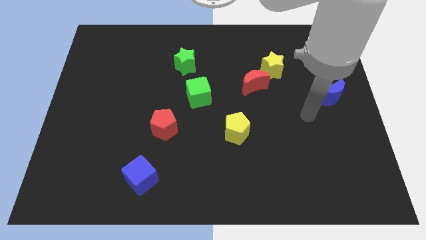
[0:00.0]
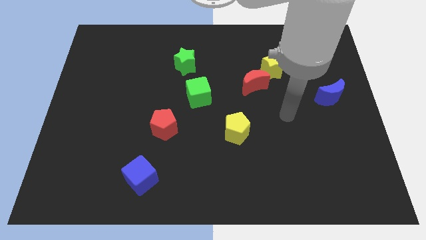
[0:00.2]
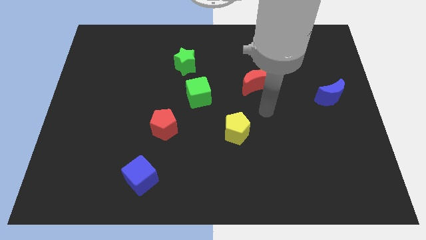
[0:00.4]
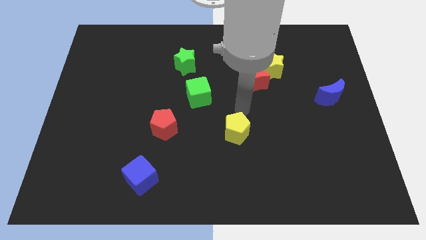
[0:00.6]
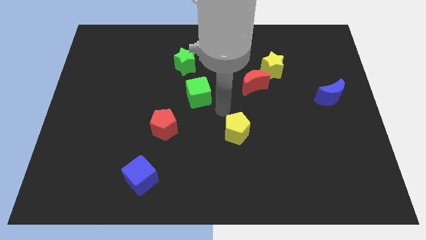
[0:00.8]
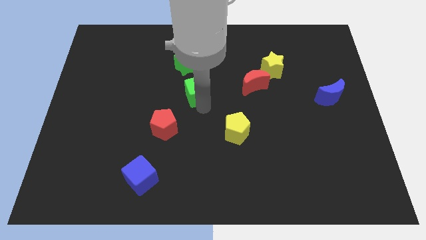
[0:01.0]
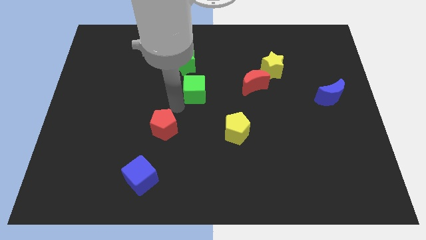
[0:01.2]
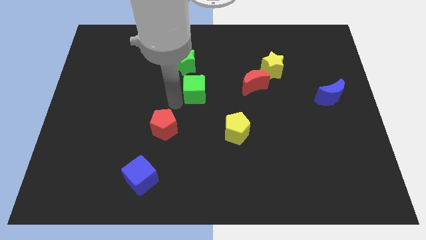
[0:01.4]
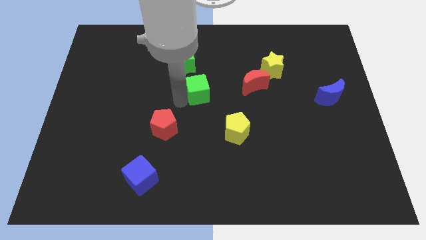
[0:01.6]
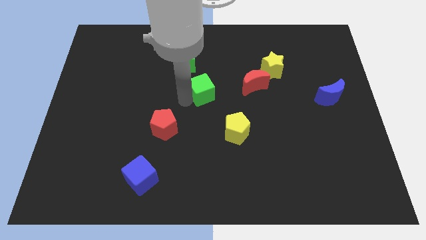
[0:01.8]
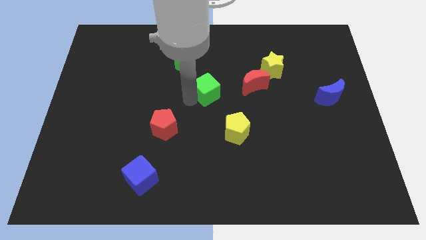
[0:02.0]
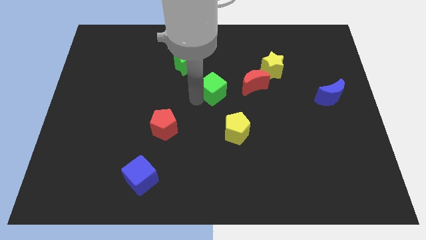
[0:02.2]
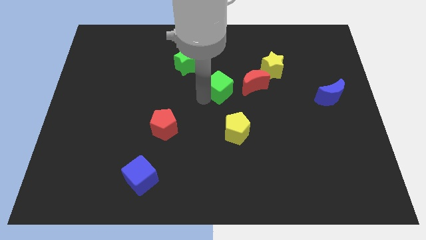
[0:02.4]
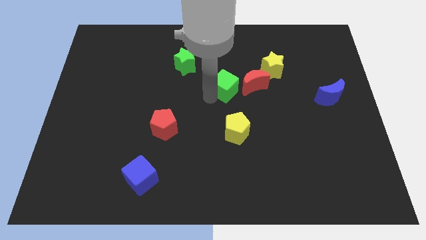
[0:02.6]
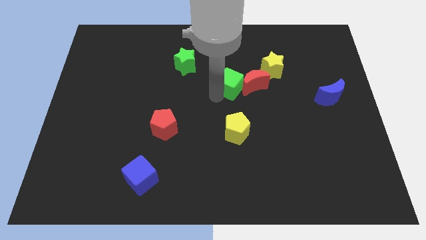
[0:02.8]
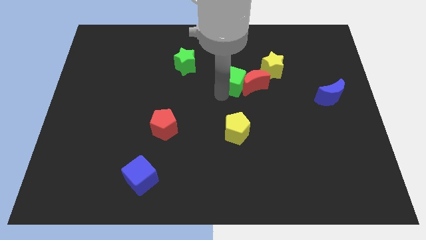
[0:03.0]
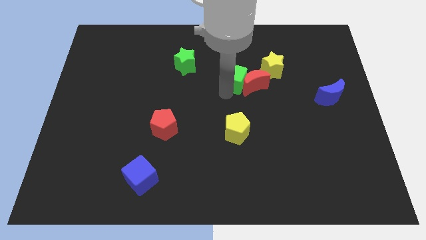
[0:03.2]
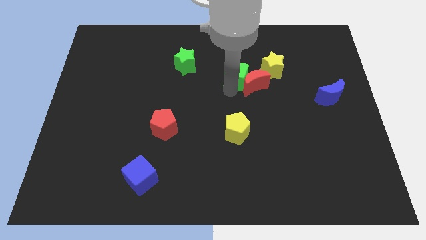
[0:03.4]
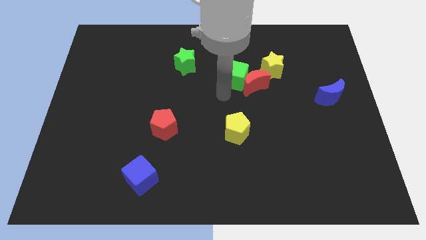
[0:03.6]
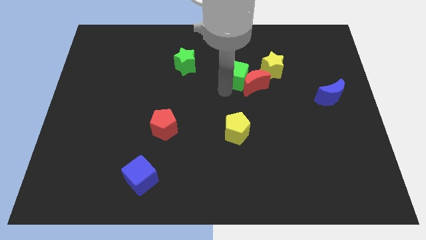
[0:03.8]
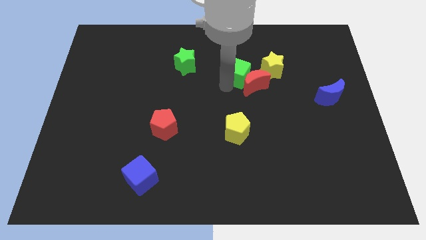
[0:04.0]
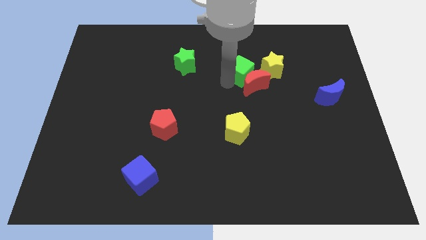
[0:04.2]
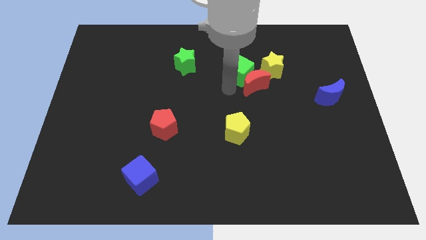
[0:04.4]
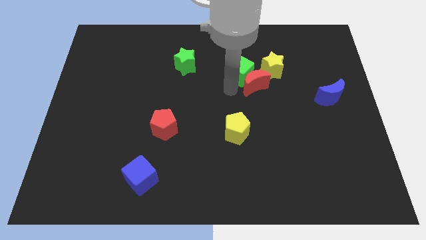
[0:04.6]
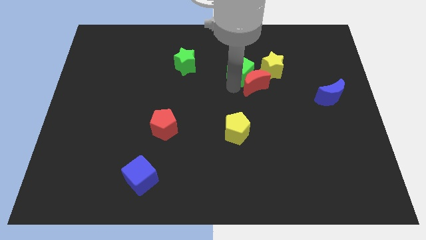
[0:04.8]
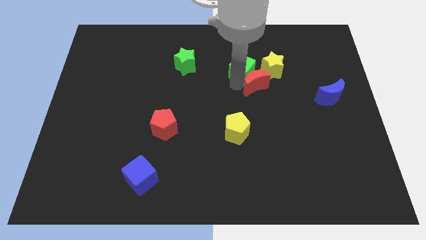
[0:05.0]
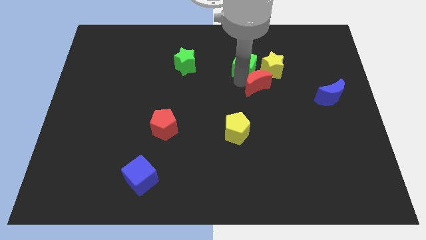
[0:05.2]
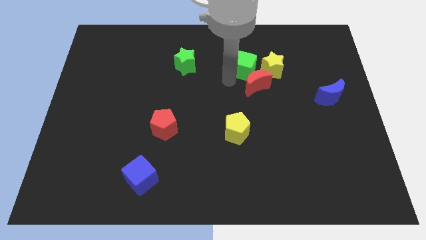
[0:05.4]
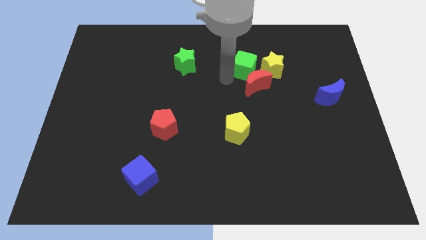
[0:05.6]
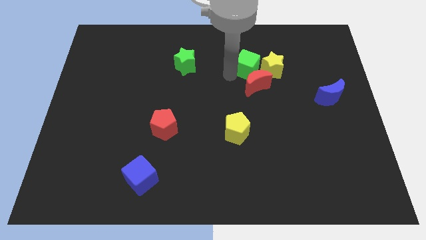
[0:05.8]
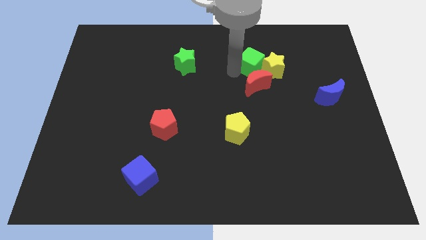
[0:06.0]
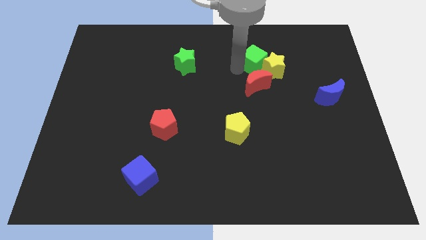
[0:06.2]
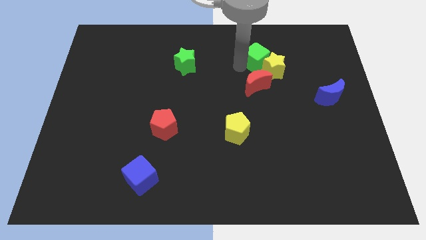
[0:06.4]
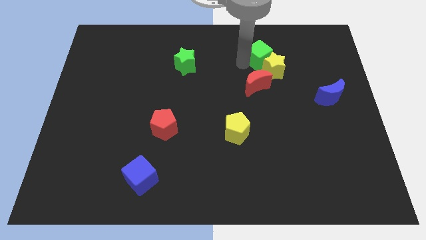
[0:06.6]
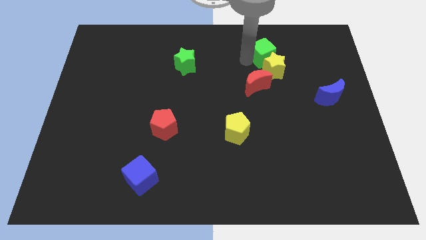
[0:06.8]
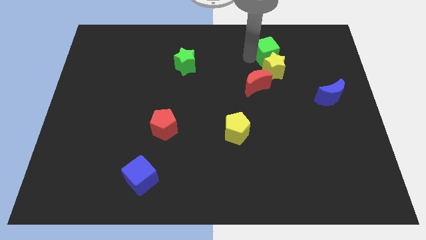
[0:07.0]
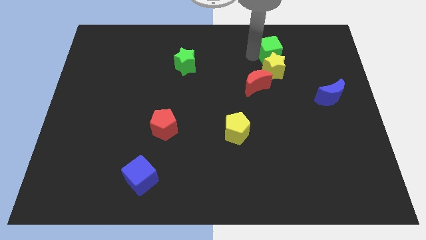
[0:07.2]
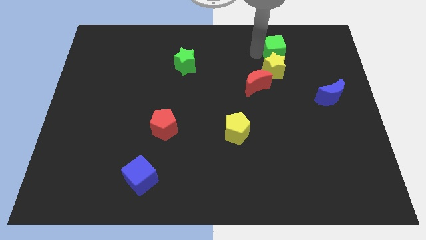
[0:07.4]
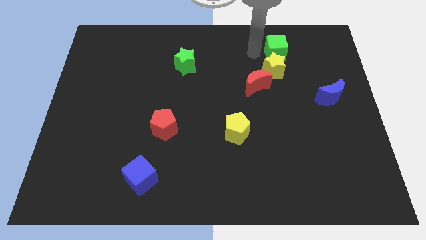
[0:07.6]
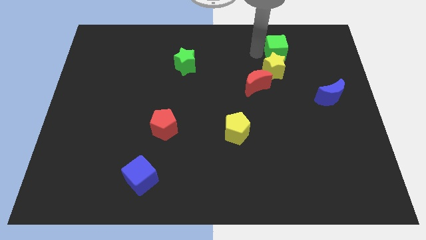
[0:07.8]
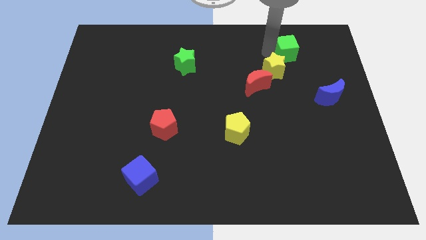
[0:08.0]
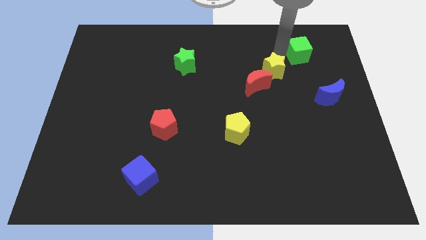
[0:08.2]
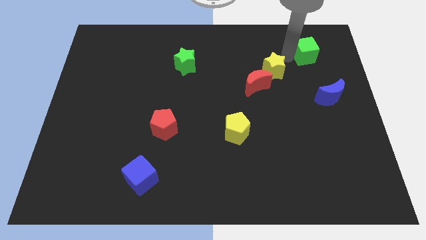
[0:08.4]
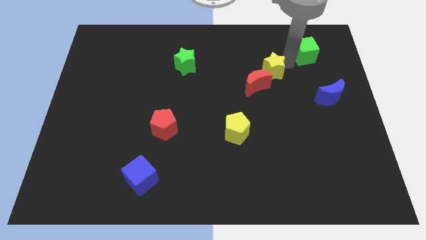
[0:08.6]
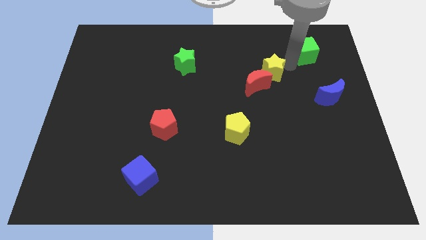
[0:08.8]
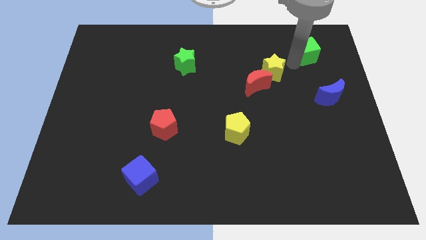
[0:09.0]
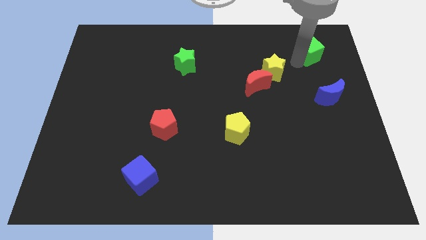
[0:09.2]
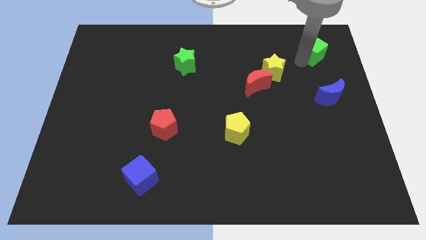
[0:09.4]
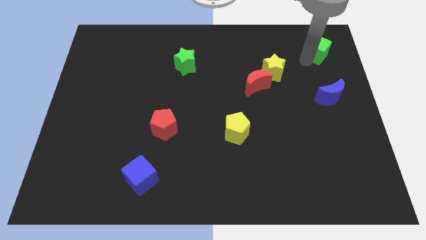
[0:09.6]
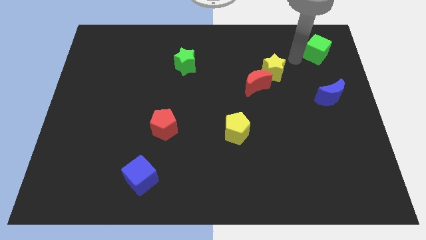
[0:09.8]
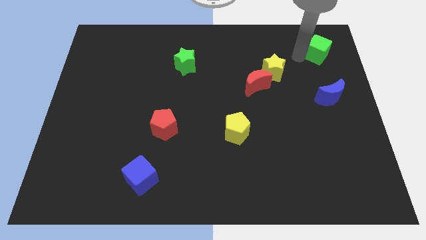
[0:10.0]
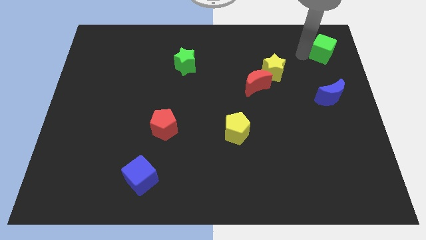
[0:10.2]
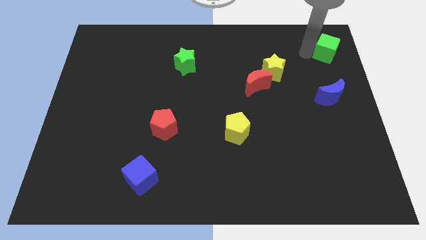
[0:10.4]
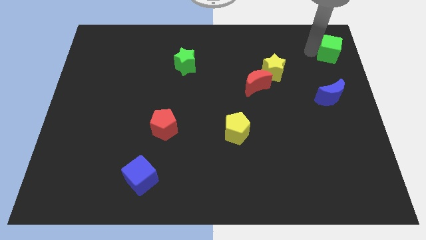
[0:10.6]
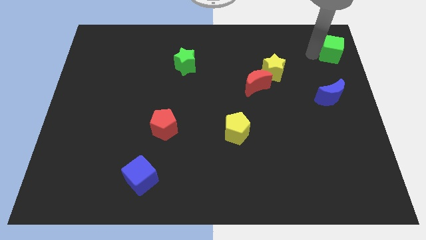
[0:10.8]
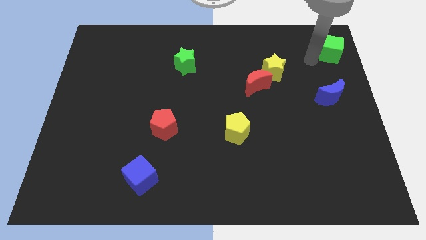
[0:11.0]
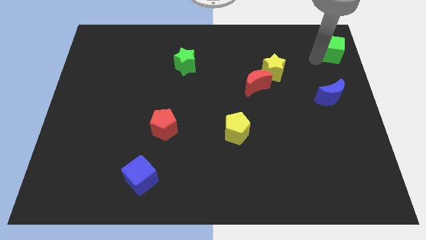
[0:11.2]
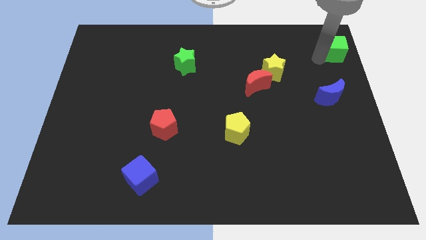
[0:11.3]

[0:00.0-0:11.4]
push the green cube to the top right corner

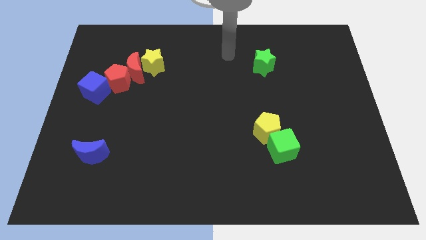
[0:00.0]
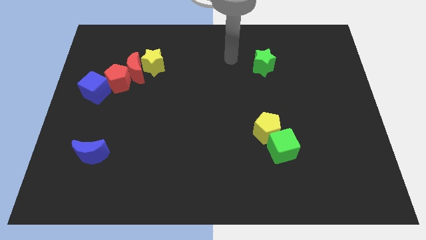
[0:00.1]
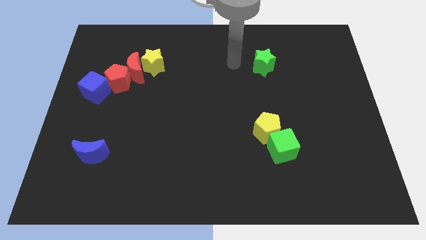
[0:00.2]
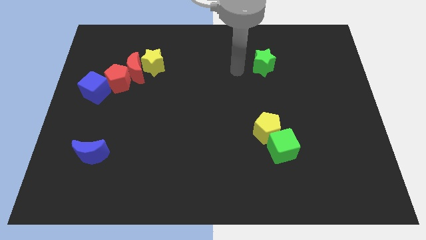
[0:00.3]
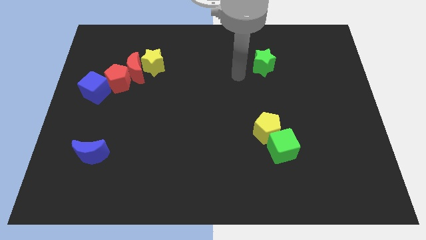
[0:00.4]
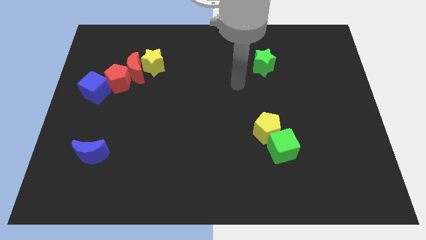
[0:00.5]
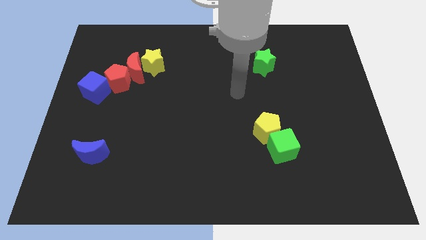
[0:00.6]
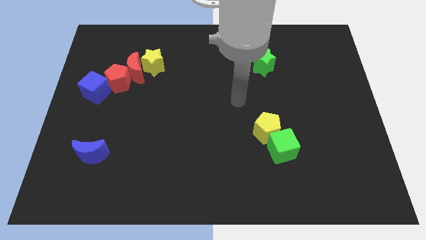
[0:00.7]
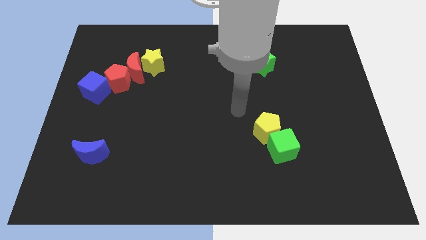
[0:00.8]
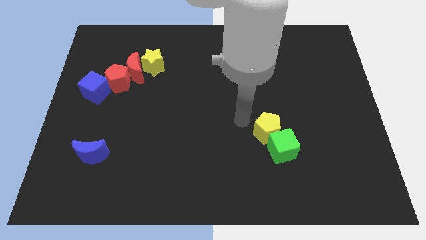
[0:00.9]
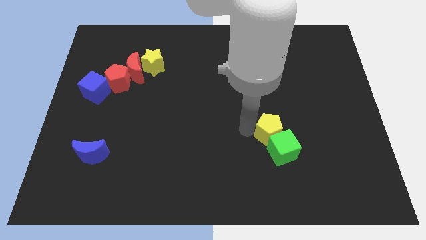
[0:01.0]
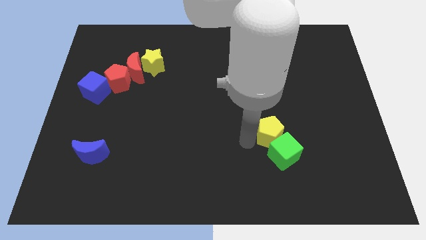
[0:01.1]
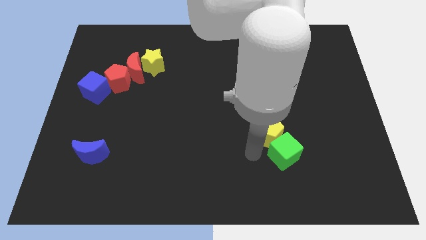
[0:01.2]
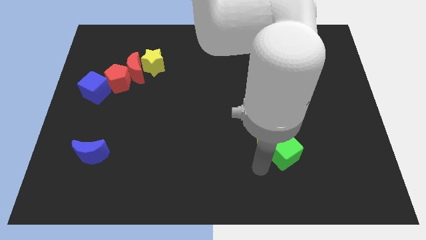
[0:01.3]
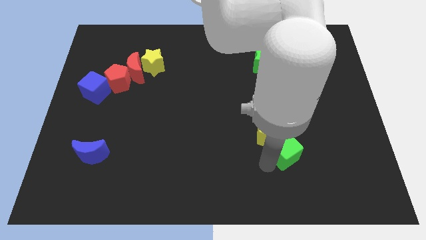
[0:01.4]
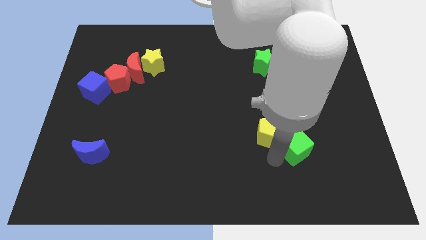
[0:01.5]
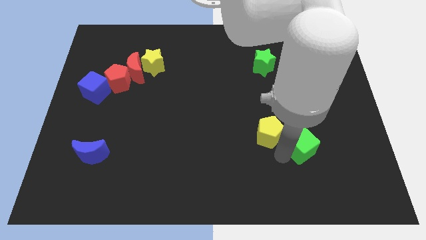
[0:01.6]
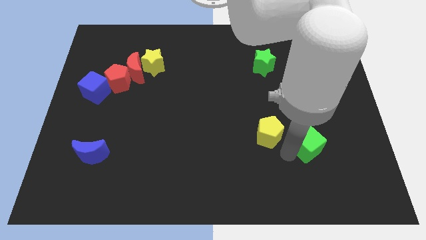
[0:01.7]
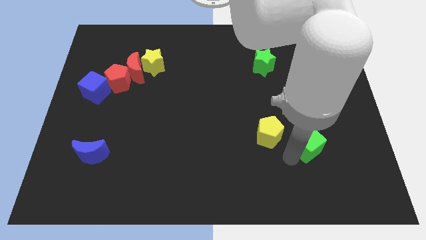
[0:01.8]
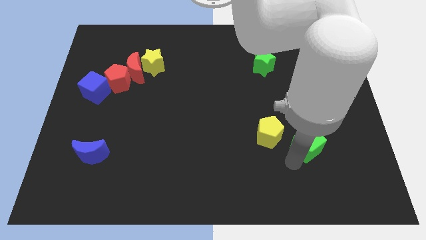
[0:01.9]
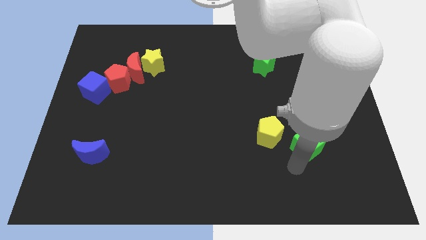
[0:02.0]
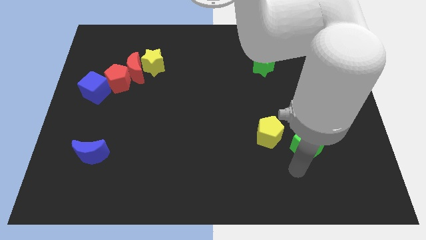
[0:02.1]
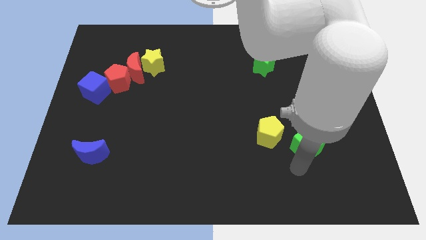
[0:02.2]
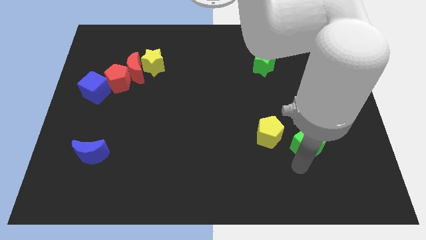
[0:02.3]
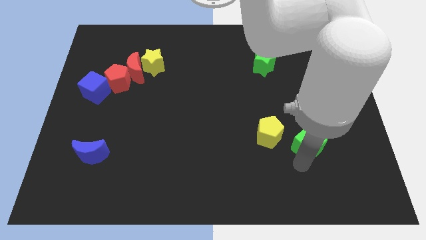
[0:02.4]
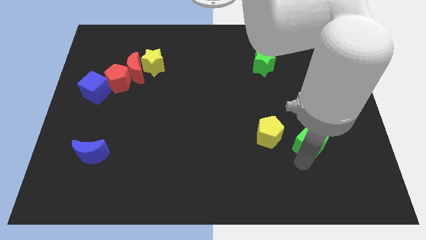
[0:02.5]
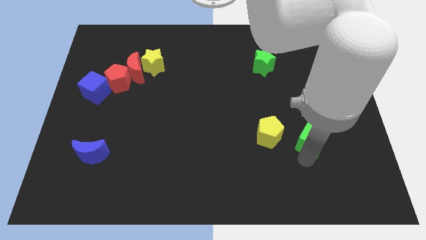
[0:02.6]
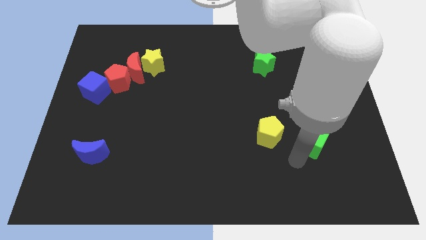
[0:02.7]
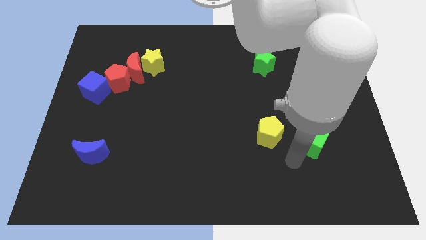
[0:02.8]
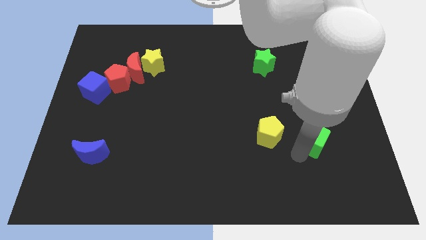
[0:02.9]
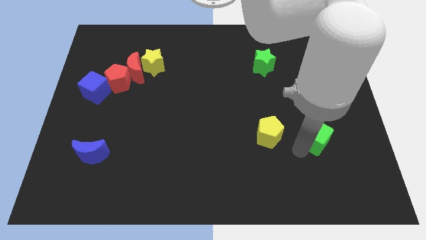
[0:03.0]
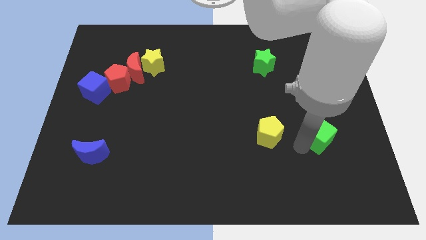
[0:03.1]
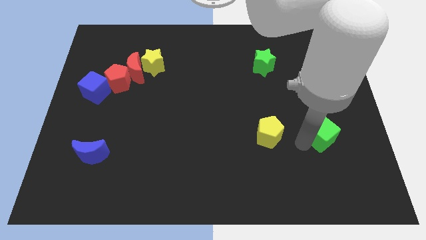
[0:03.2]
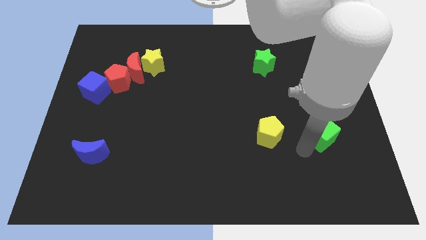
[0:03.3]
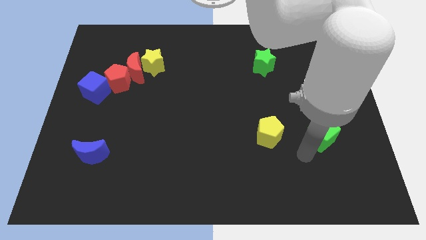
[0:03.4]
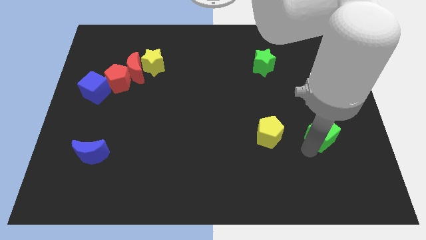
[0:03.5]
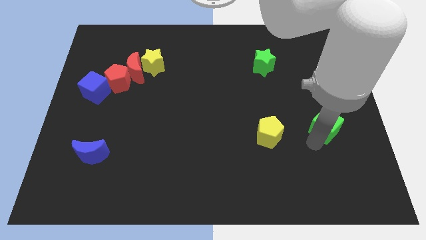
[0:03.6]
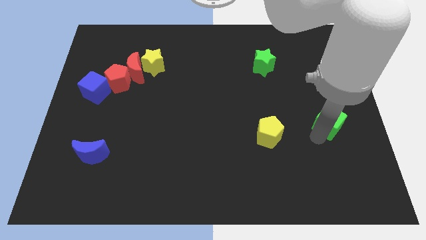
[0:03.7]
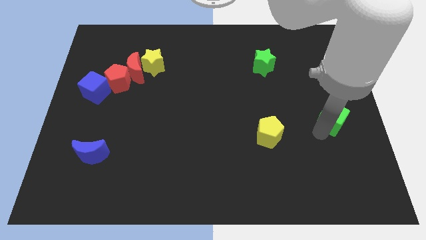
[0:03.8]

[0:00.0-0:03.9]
push the green cube to the center right
